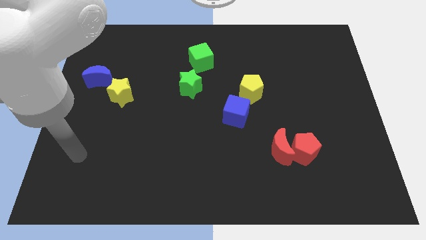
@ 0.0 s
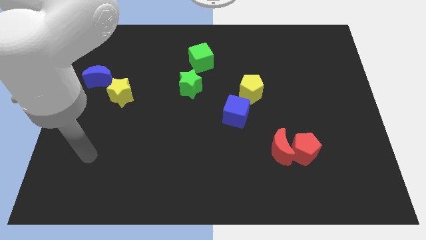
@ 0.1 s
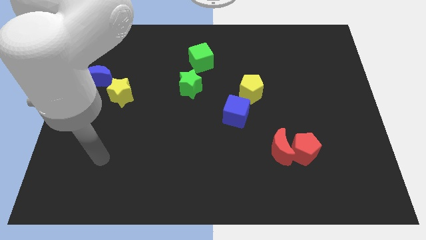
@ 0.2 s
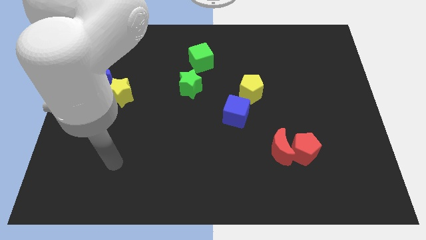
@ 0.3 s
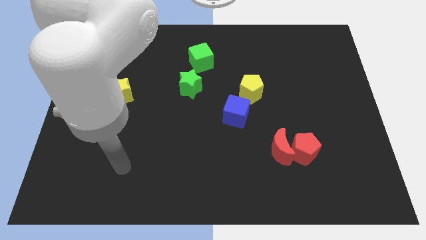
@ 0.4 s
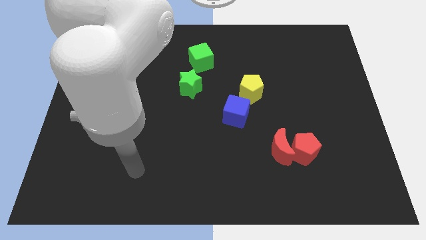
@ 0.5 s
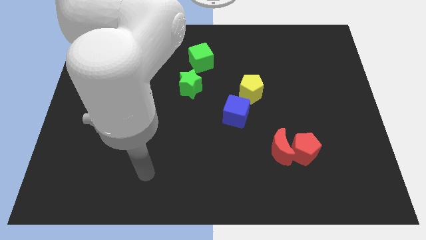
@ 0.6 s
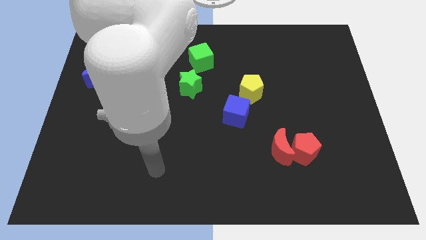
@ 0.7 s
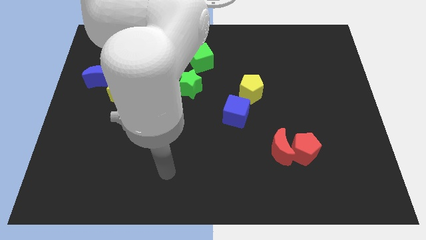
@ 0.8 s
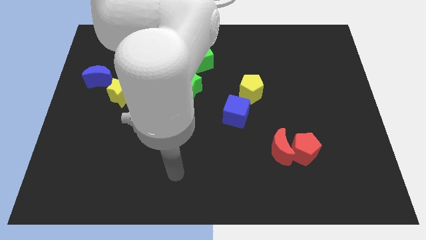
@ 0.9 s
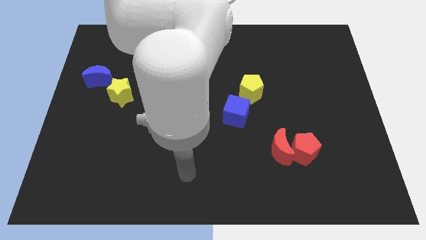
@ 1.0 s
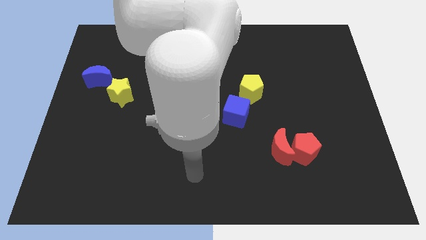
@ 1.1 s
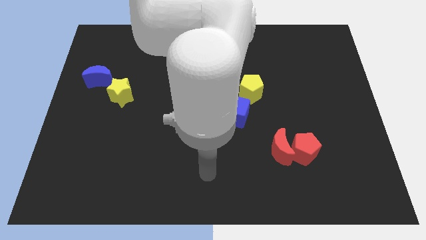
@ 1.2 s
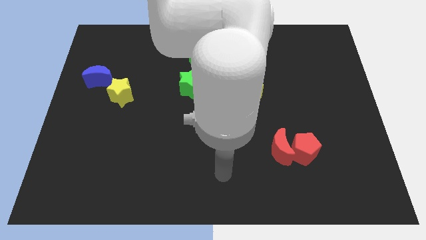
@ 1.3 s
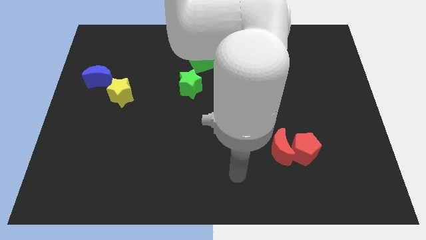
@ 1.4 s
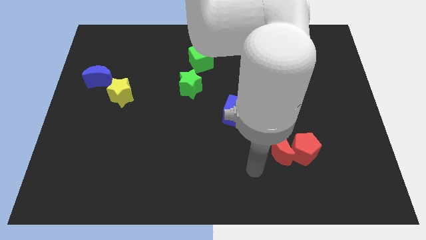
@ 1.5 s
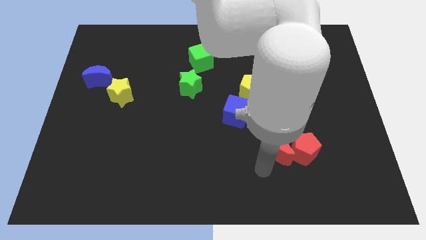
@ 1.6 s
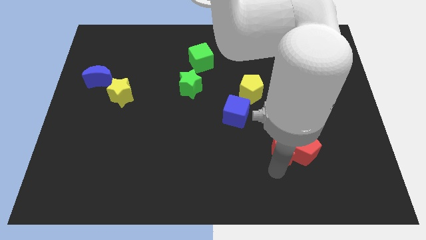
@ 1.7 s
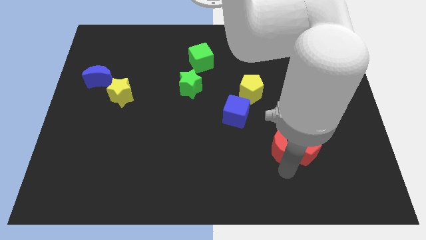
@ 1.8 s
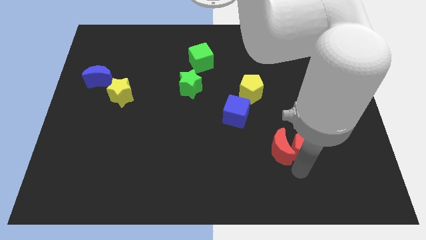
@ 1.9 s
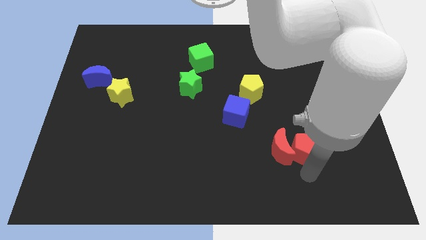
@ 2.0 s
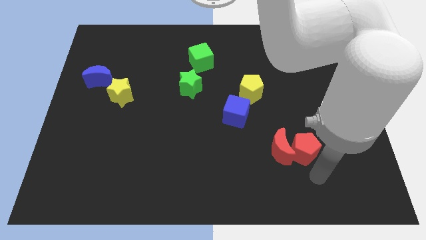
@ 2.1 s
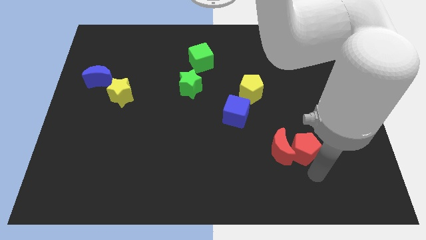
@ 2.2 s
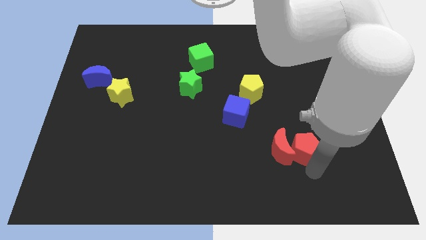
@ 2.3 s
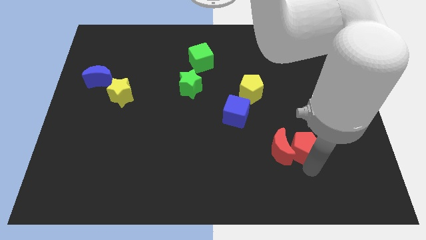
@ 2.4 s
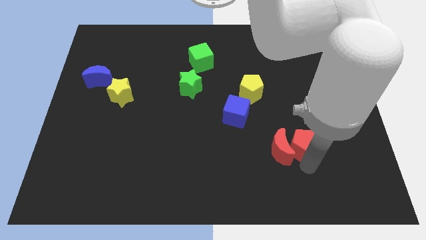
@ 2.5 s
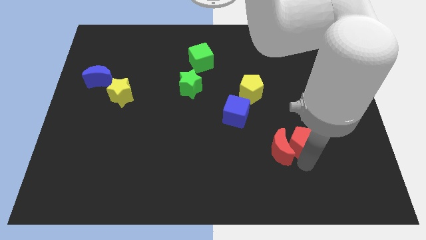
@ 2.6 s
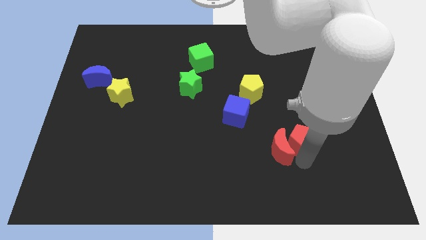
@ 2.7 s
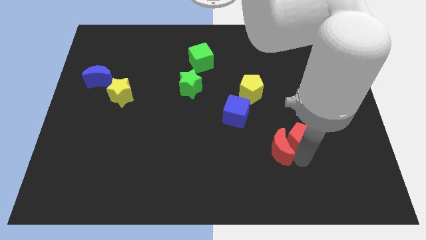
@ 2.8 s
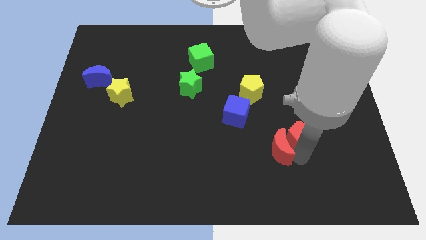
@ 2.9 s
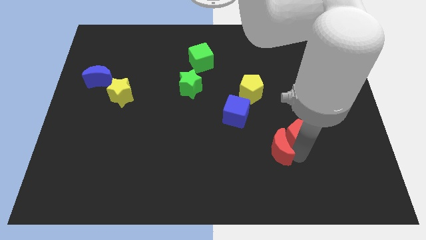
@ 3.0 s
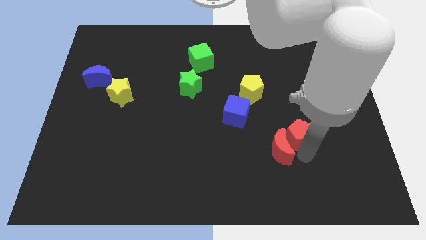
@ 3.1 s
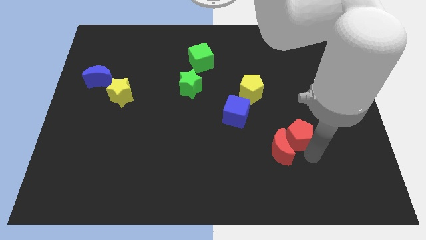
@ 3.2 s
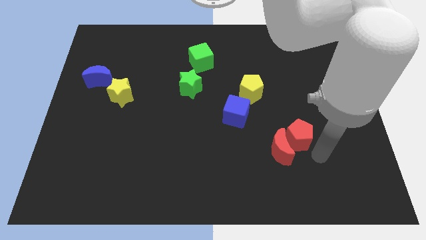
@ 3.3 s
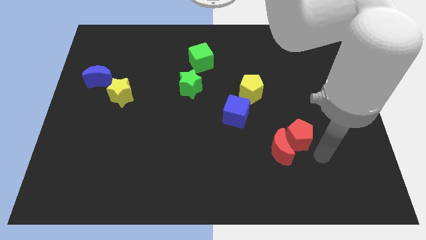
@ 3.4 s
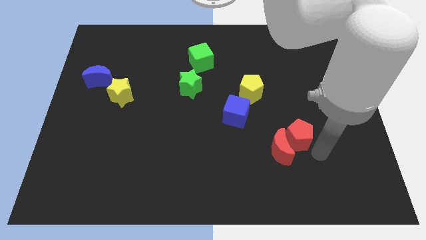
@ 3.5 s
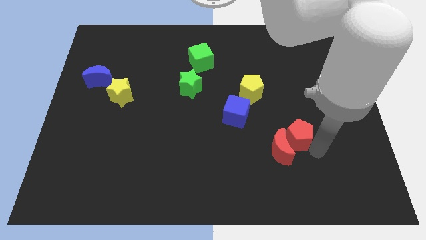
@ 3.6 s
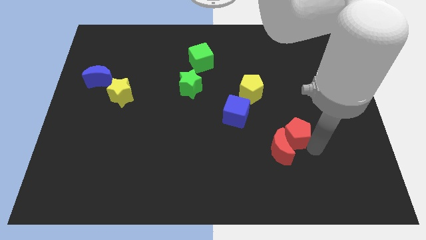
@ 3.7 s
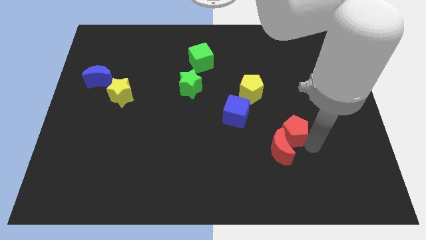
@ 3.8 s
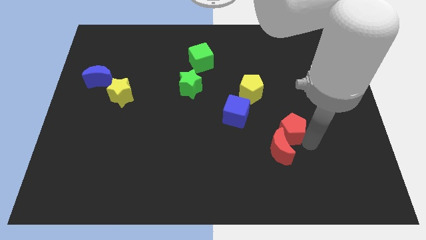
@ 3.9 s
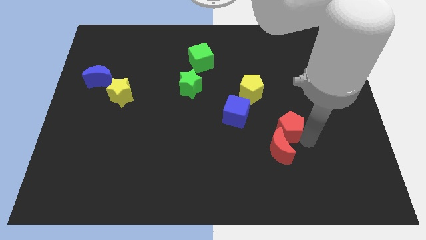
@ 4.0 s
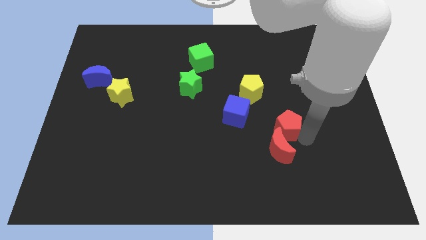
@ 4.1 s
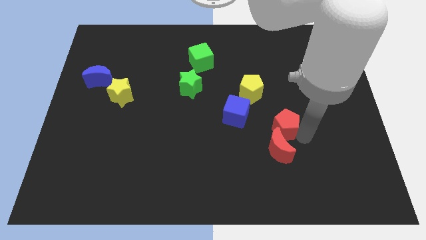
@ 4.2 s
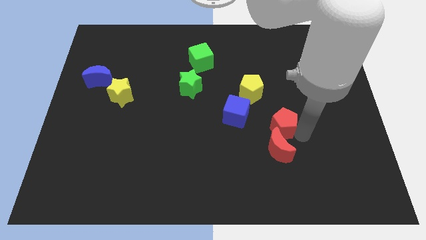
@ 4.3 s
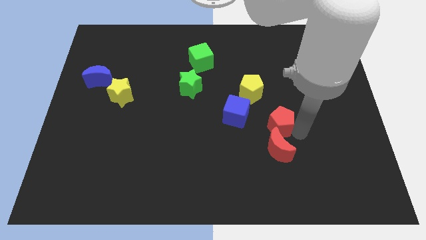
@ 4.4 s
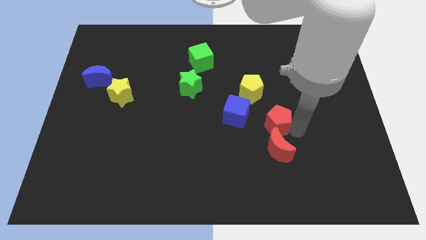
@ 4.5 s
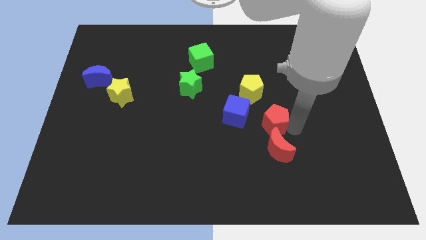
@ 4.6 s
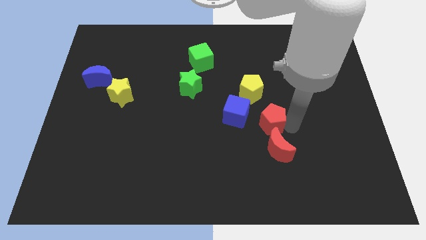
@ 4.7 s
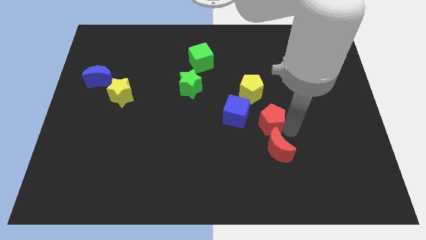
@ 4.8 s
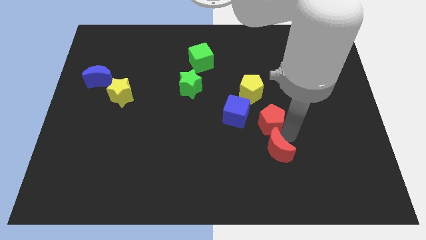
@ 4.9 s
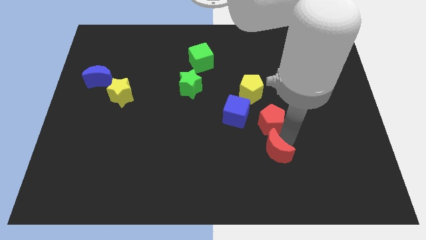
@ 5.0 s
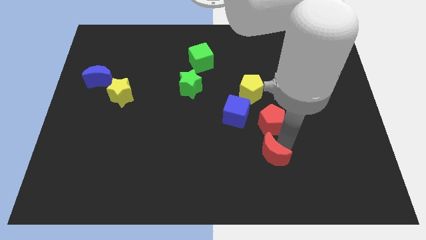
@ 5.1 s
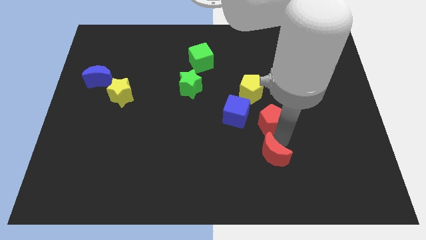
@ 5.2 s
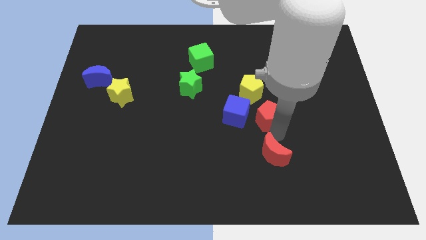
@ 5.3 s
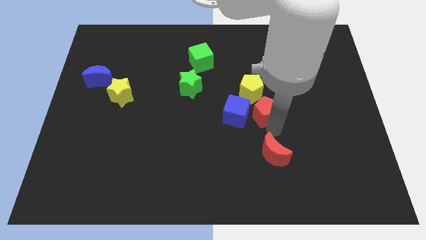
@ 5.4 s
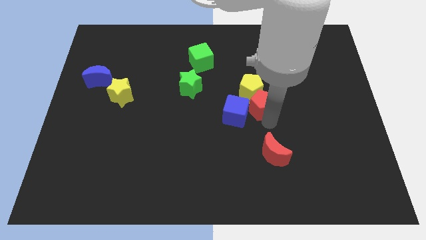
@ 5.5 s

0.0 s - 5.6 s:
push the red pentagon to the yellow pentagon

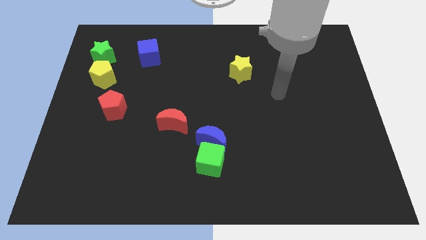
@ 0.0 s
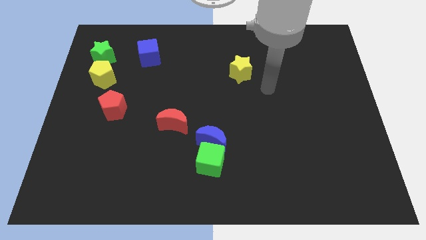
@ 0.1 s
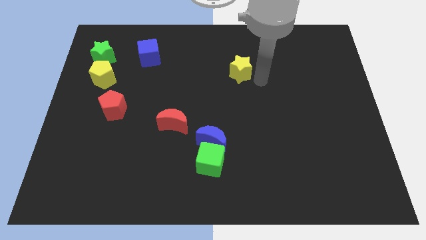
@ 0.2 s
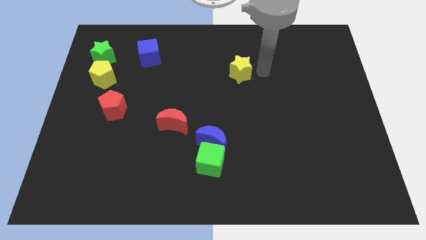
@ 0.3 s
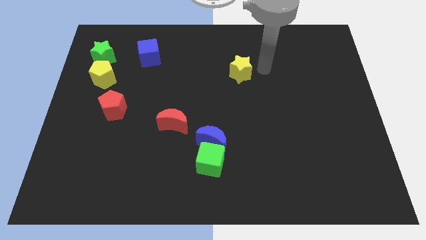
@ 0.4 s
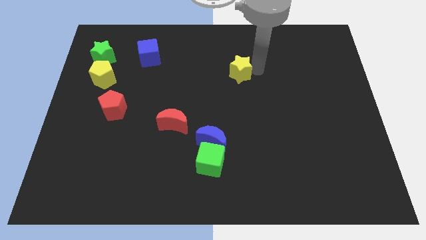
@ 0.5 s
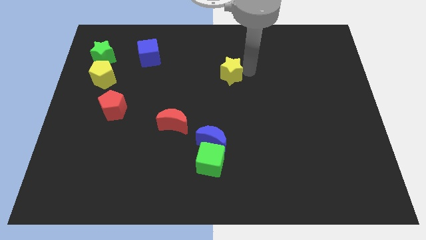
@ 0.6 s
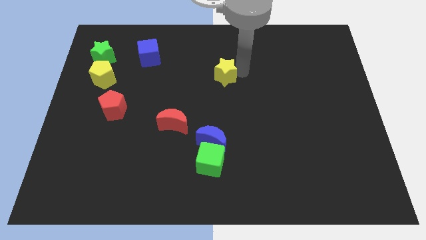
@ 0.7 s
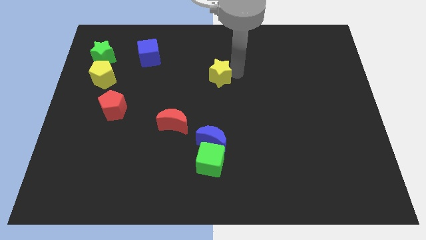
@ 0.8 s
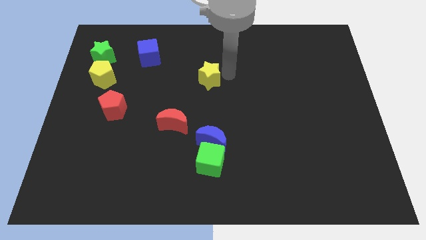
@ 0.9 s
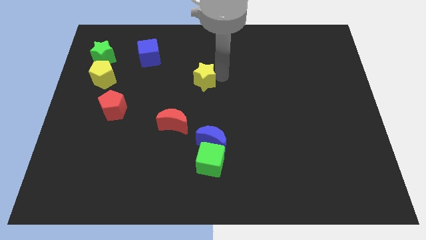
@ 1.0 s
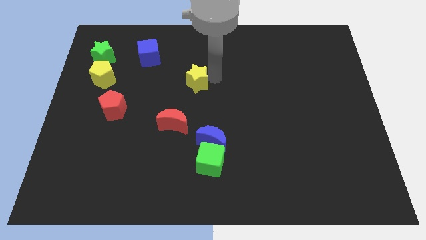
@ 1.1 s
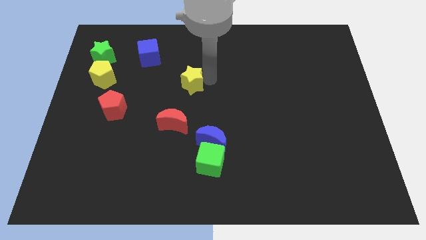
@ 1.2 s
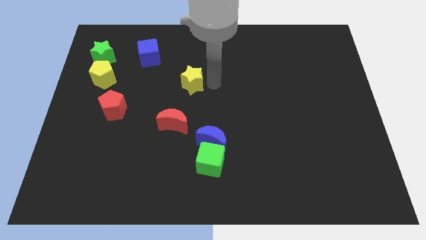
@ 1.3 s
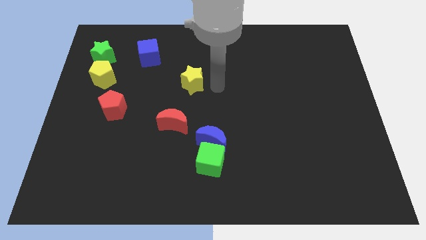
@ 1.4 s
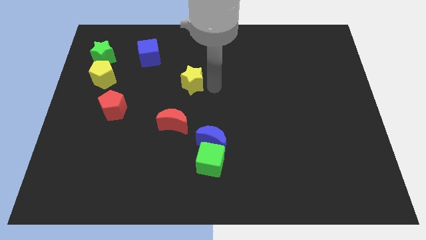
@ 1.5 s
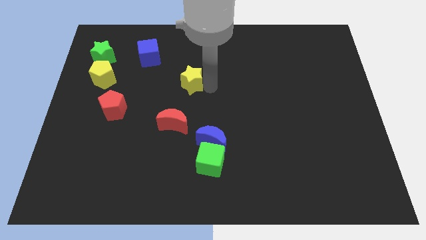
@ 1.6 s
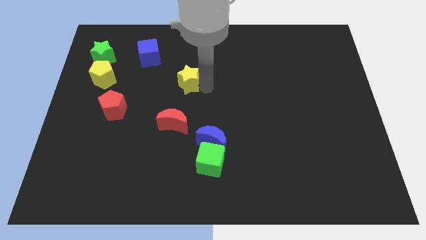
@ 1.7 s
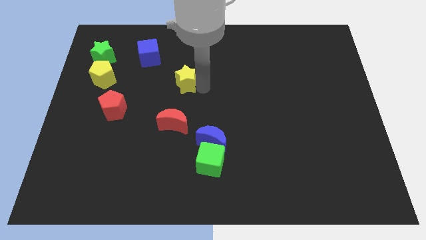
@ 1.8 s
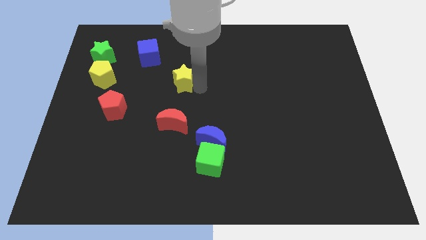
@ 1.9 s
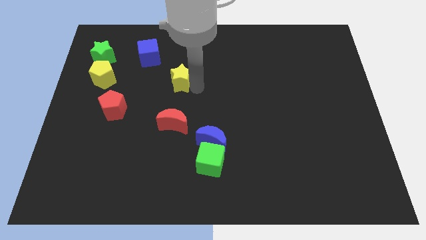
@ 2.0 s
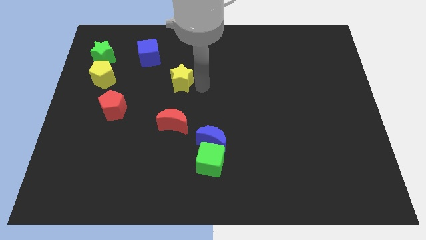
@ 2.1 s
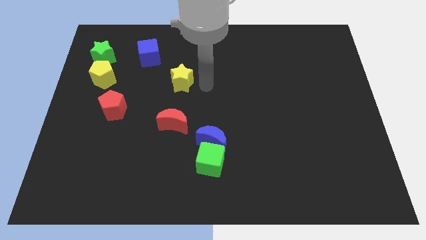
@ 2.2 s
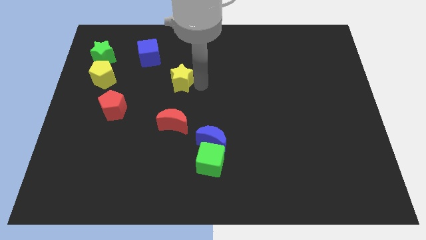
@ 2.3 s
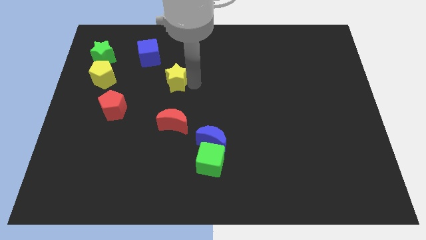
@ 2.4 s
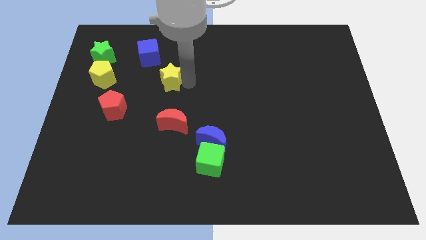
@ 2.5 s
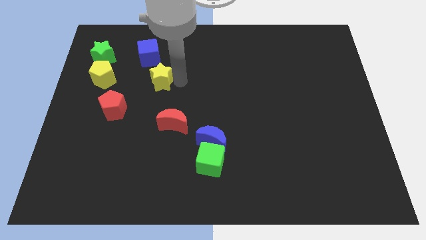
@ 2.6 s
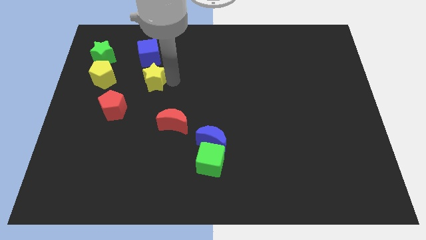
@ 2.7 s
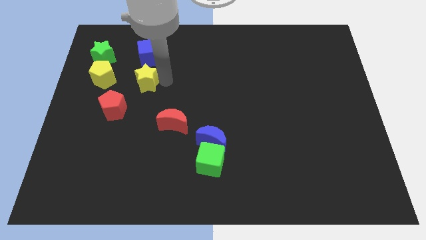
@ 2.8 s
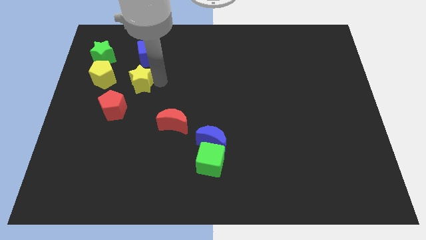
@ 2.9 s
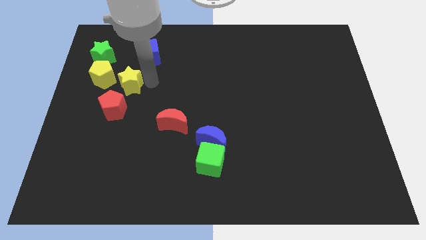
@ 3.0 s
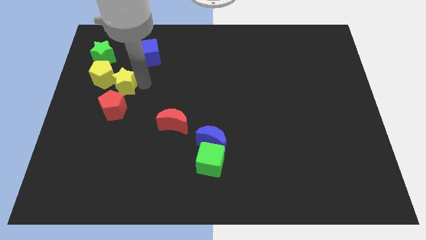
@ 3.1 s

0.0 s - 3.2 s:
slide the yellow star towards the yellow pentagon
